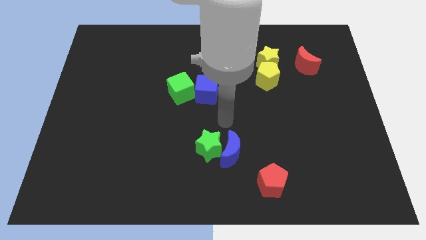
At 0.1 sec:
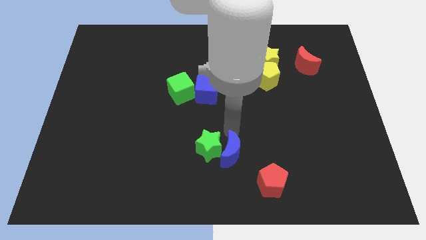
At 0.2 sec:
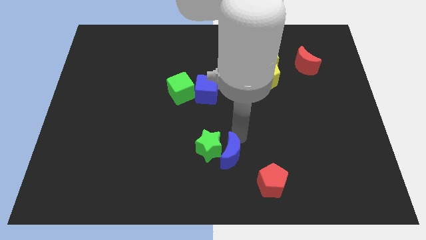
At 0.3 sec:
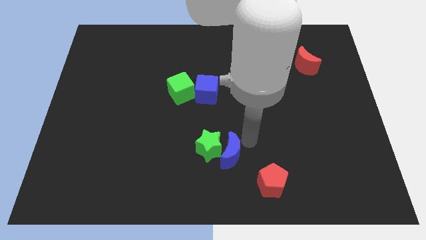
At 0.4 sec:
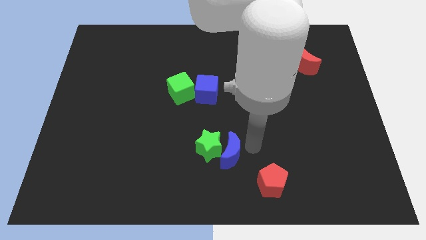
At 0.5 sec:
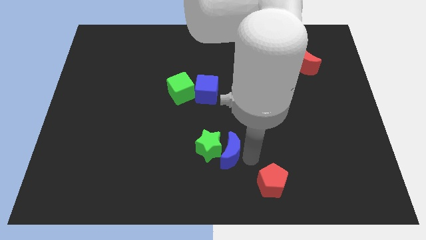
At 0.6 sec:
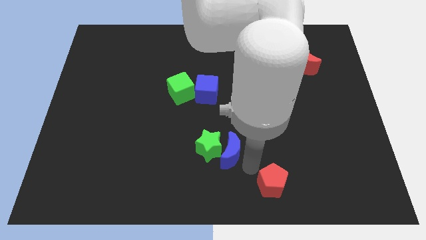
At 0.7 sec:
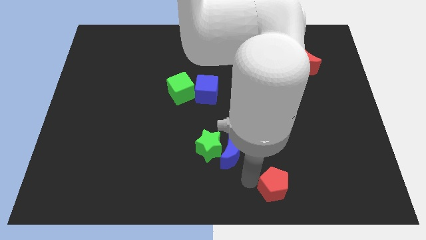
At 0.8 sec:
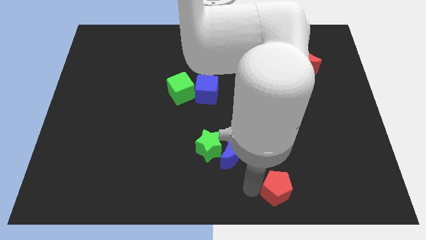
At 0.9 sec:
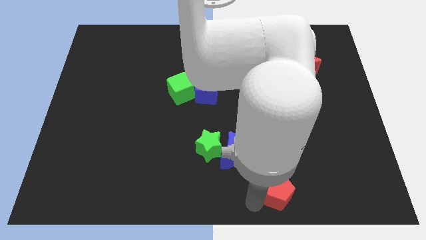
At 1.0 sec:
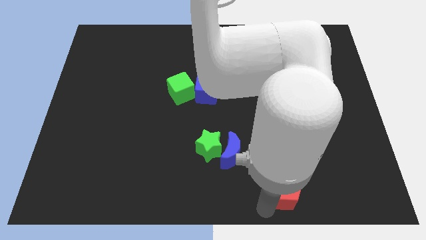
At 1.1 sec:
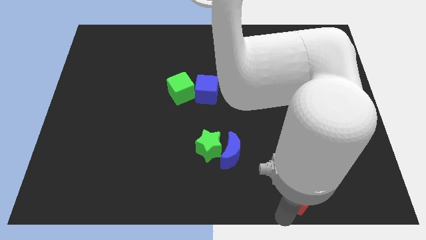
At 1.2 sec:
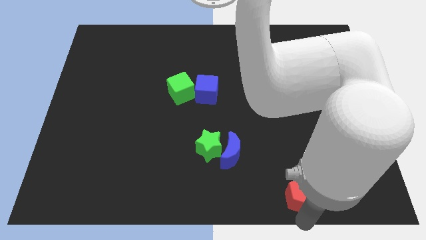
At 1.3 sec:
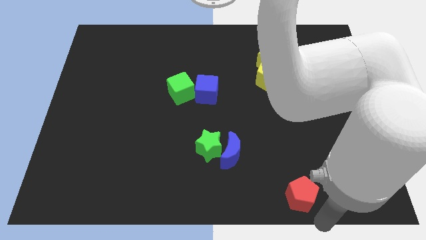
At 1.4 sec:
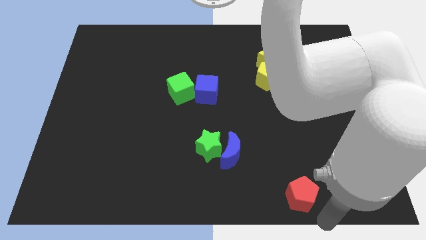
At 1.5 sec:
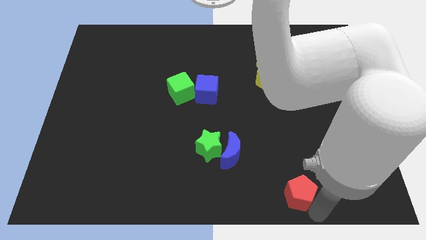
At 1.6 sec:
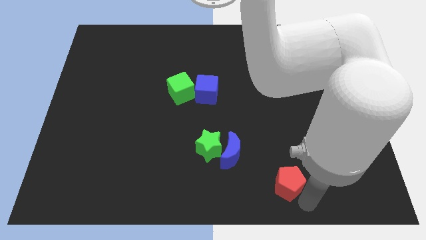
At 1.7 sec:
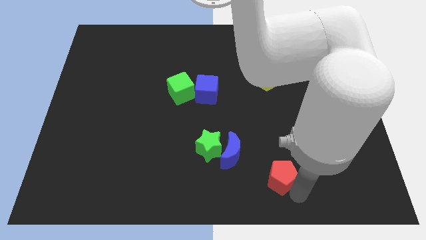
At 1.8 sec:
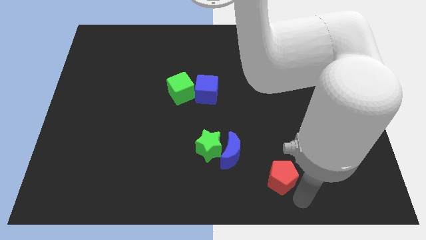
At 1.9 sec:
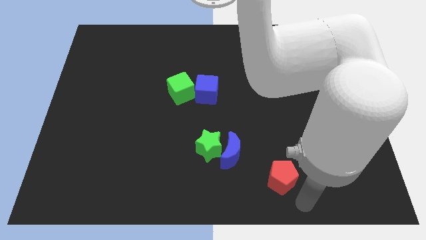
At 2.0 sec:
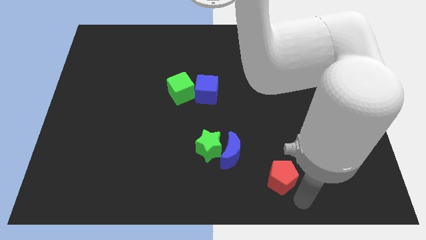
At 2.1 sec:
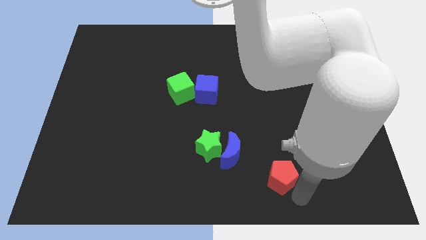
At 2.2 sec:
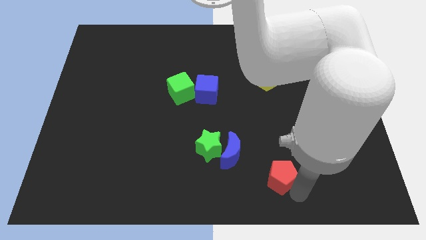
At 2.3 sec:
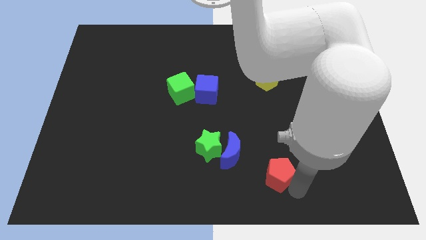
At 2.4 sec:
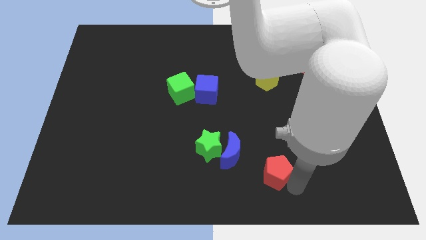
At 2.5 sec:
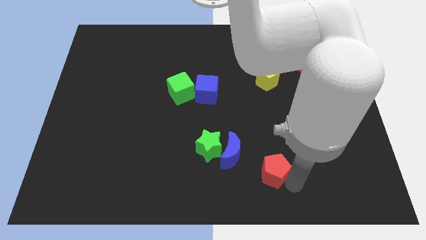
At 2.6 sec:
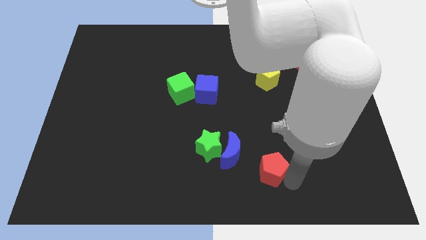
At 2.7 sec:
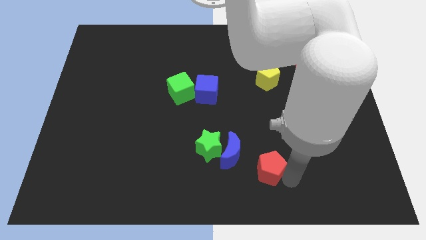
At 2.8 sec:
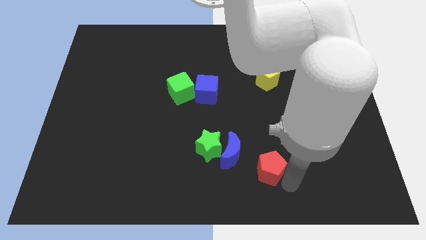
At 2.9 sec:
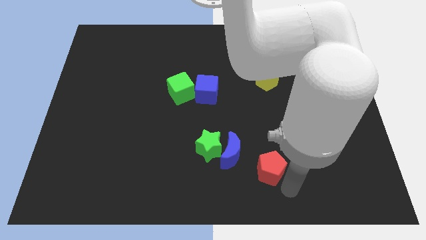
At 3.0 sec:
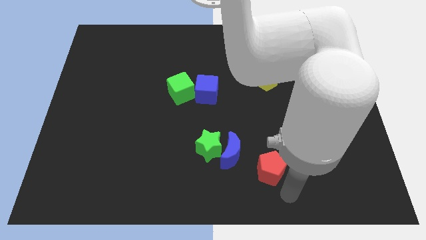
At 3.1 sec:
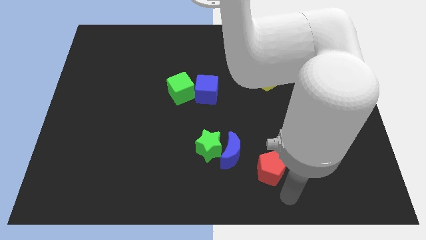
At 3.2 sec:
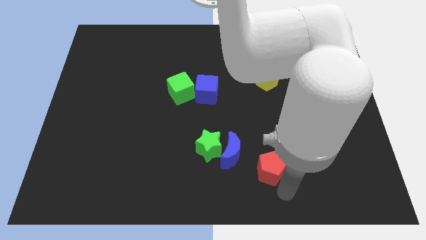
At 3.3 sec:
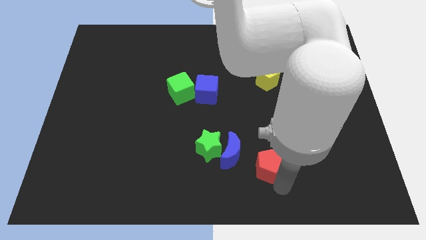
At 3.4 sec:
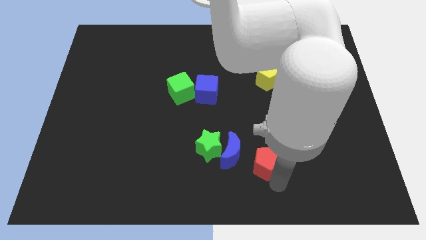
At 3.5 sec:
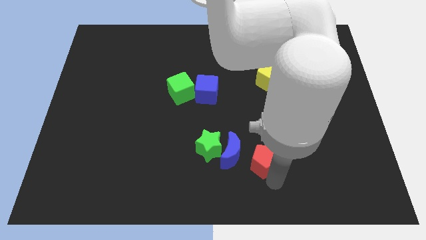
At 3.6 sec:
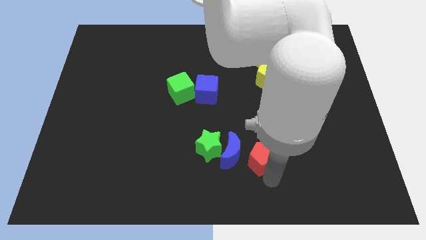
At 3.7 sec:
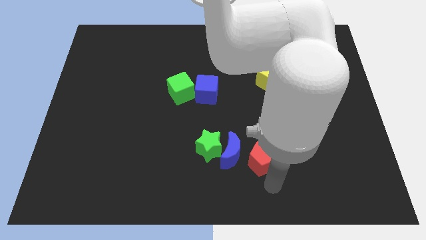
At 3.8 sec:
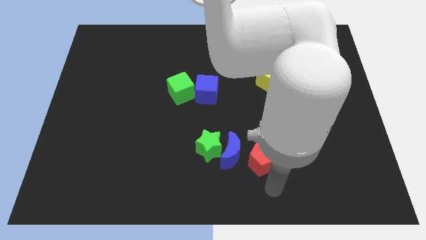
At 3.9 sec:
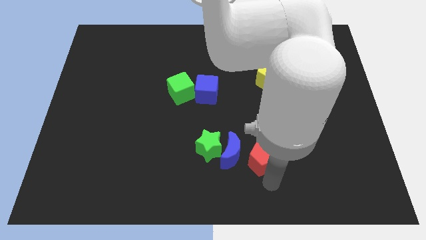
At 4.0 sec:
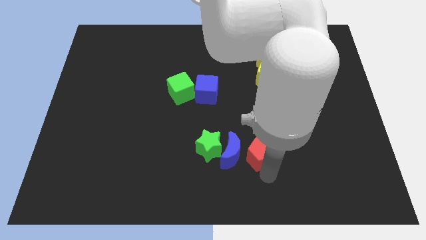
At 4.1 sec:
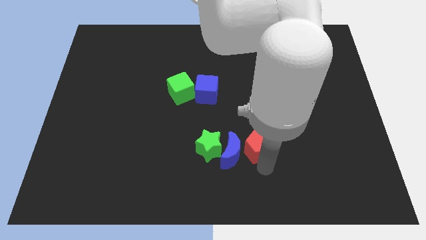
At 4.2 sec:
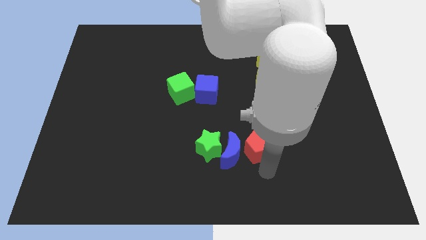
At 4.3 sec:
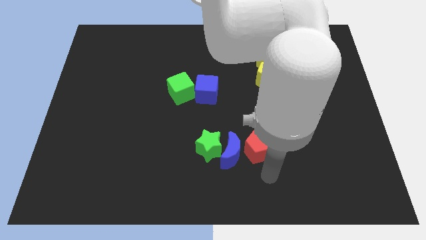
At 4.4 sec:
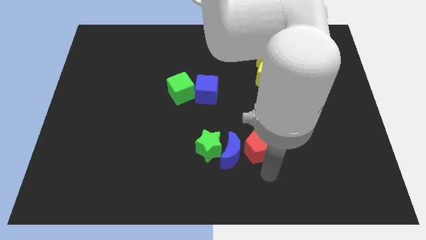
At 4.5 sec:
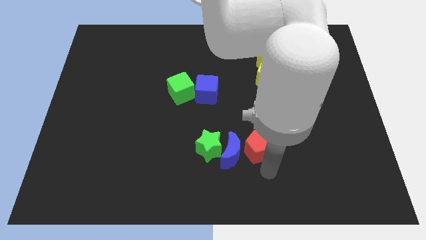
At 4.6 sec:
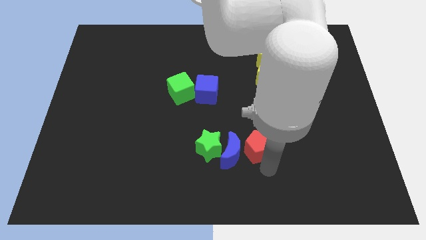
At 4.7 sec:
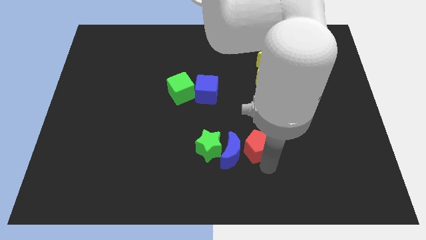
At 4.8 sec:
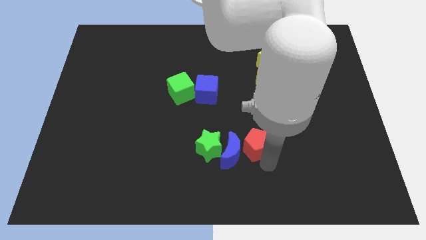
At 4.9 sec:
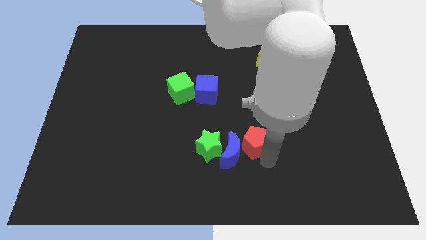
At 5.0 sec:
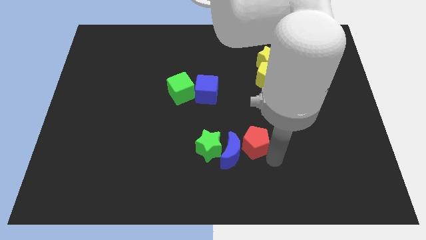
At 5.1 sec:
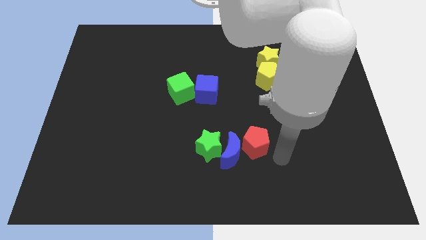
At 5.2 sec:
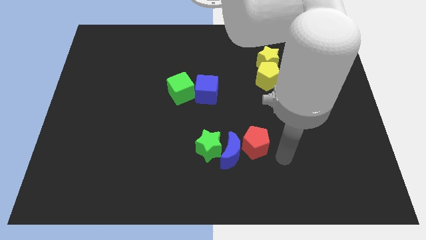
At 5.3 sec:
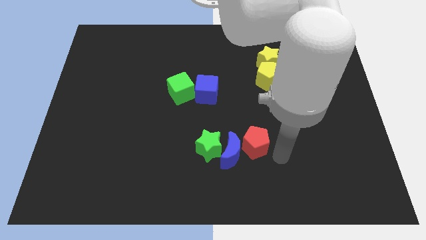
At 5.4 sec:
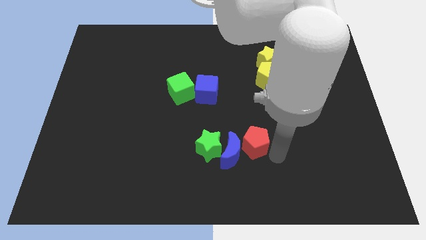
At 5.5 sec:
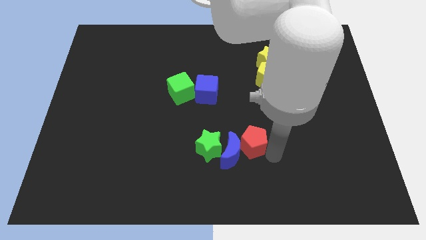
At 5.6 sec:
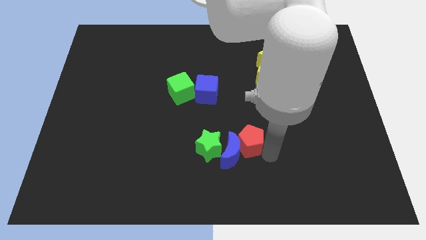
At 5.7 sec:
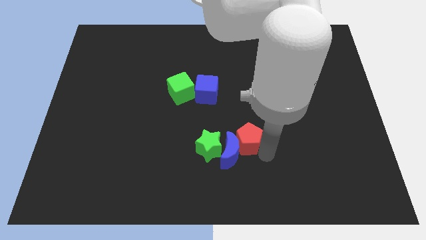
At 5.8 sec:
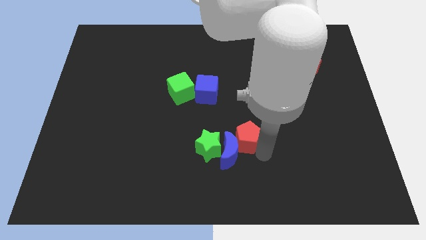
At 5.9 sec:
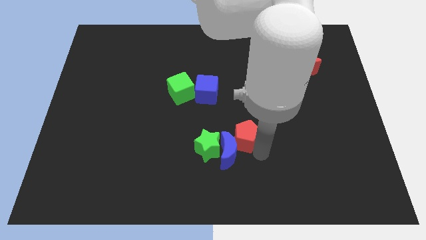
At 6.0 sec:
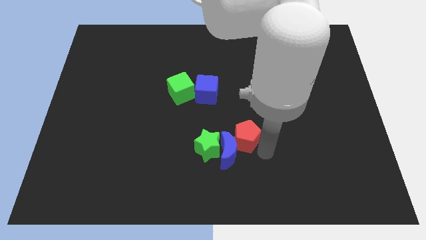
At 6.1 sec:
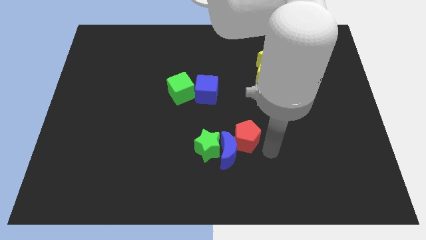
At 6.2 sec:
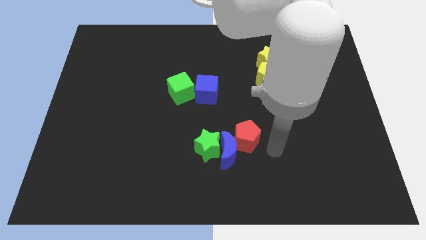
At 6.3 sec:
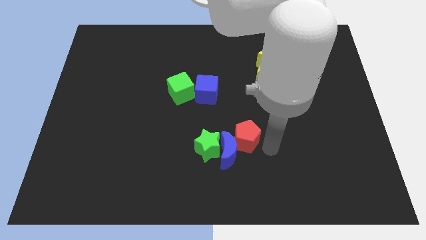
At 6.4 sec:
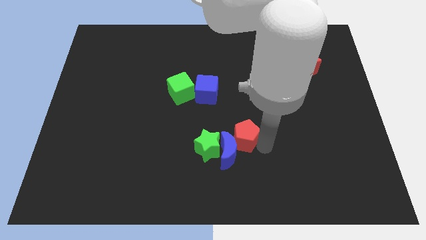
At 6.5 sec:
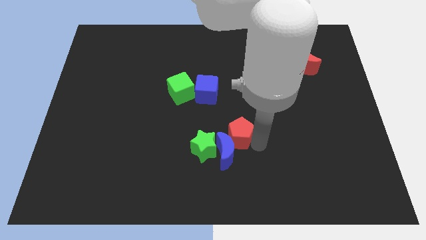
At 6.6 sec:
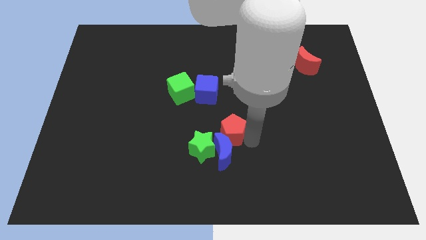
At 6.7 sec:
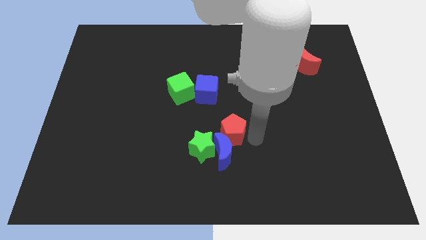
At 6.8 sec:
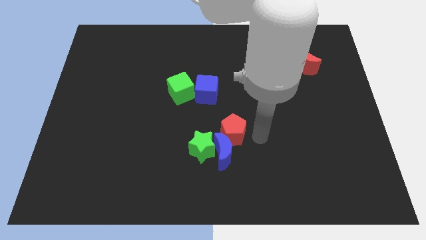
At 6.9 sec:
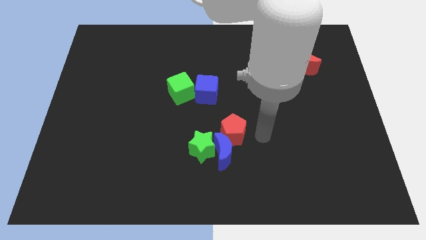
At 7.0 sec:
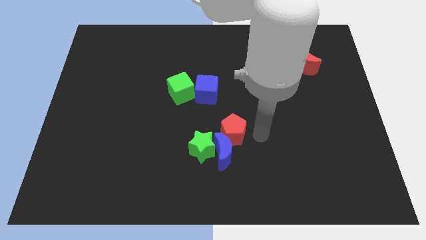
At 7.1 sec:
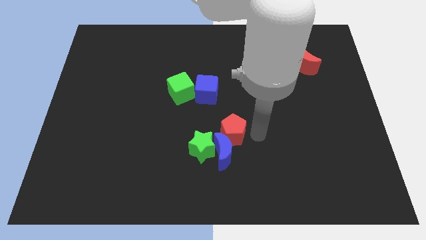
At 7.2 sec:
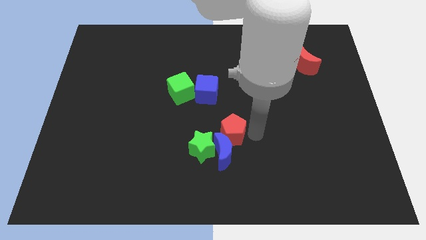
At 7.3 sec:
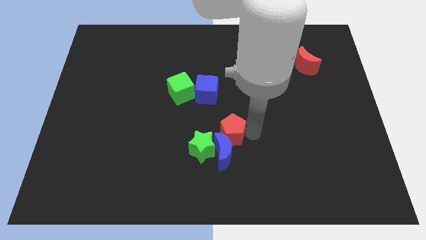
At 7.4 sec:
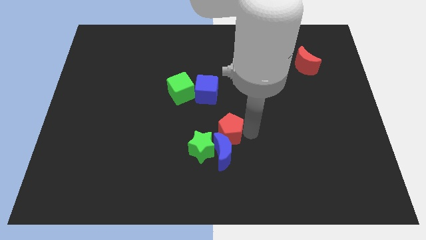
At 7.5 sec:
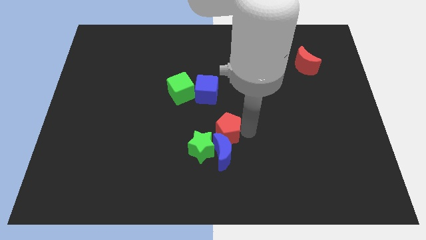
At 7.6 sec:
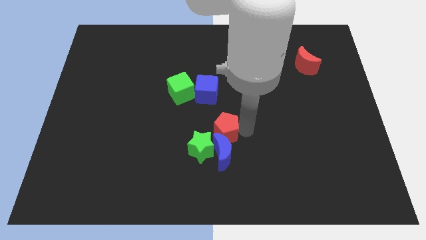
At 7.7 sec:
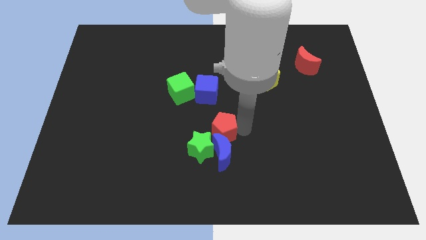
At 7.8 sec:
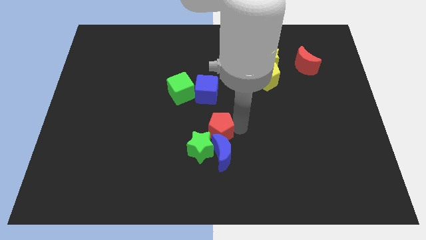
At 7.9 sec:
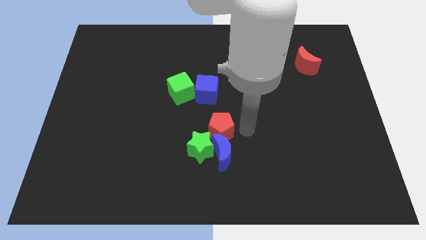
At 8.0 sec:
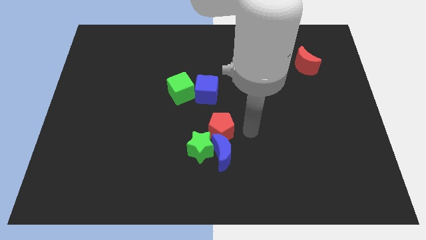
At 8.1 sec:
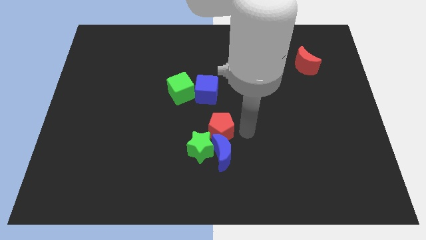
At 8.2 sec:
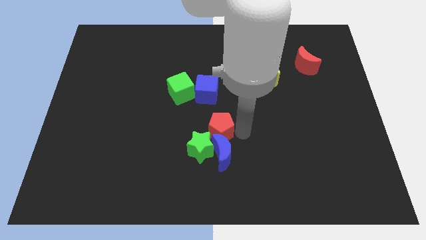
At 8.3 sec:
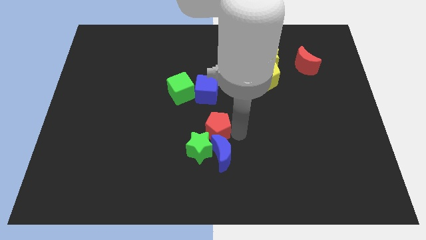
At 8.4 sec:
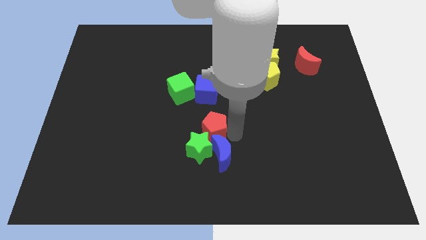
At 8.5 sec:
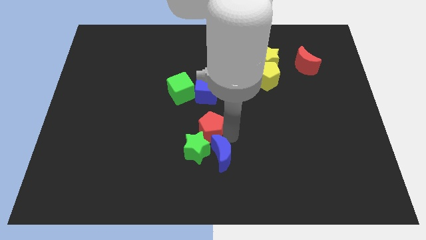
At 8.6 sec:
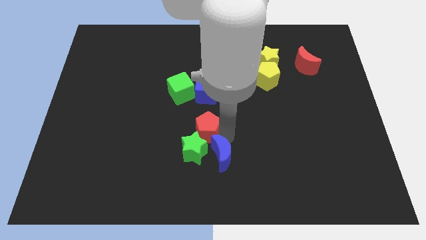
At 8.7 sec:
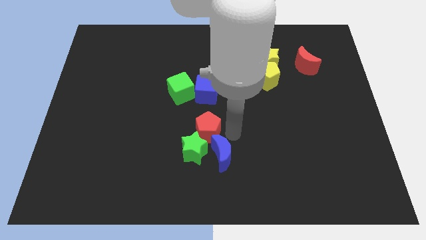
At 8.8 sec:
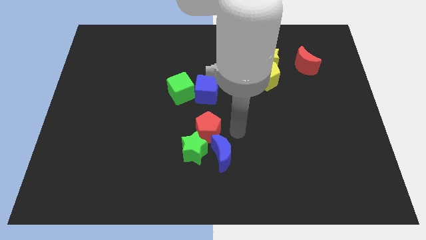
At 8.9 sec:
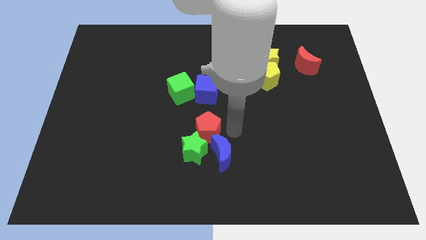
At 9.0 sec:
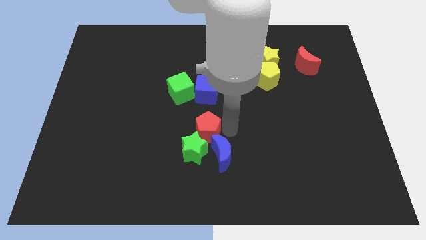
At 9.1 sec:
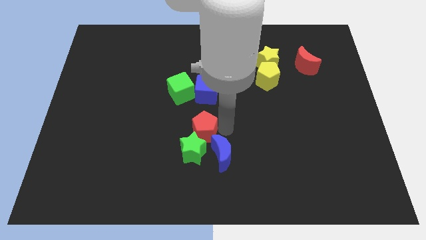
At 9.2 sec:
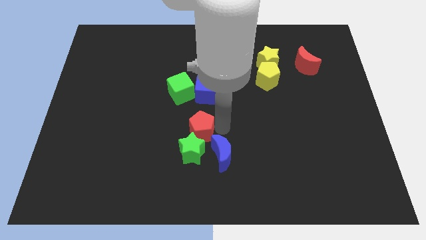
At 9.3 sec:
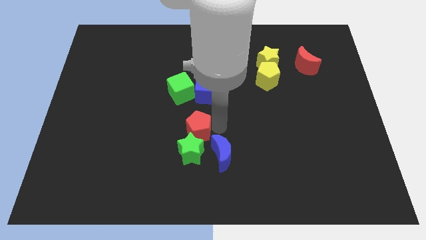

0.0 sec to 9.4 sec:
push the red pentagon to the top left of the green star
